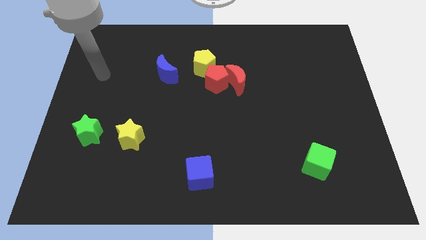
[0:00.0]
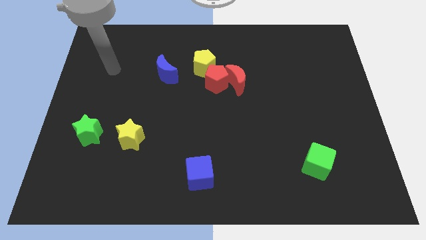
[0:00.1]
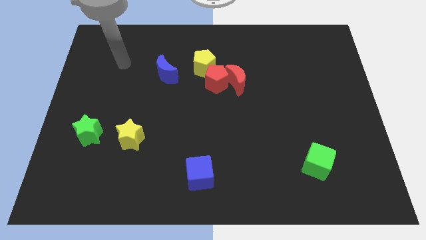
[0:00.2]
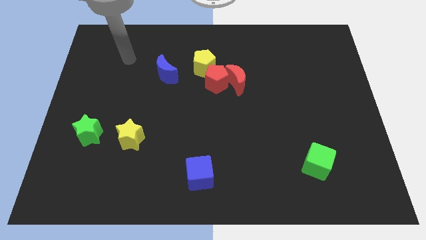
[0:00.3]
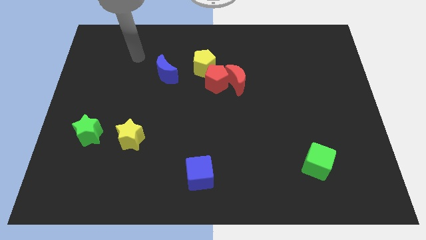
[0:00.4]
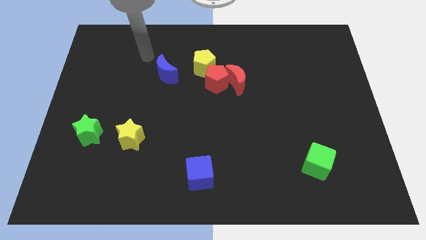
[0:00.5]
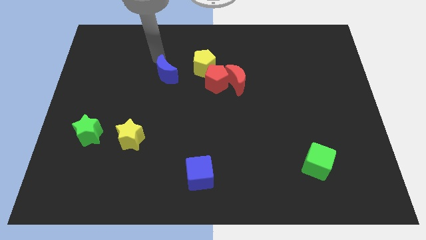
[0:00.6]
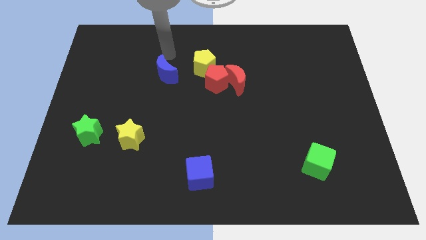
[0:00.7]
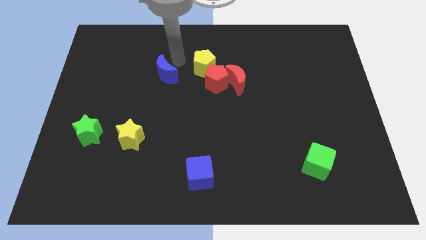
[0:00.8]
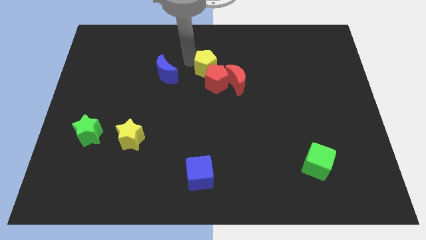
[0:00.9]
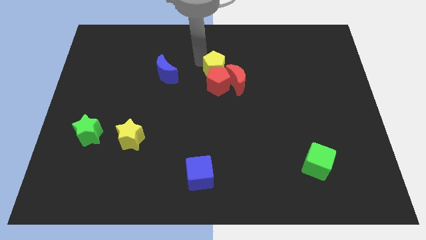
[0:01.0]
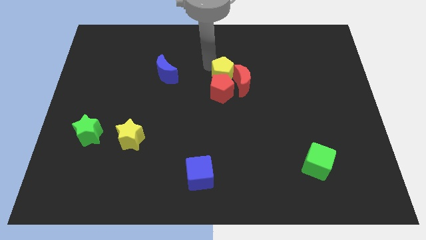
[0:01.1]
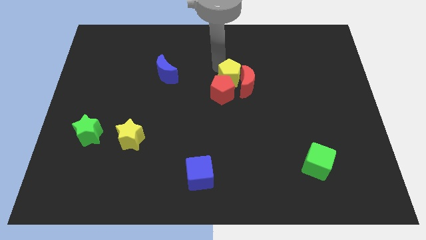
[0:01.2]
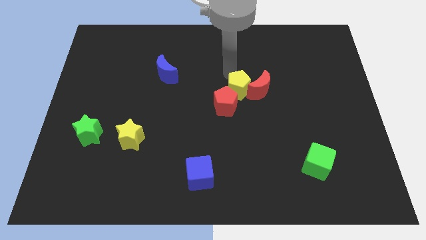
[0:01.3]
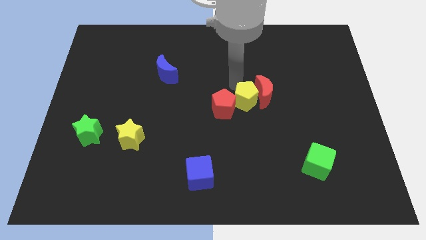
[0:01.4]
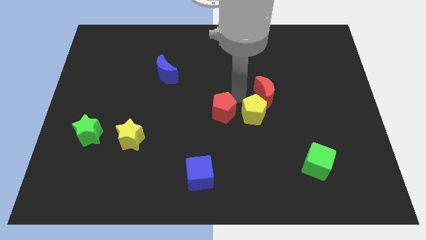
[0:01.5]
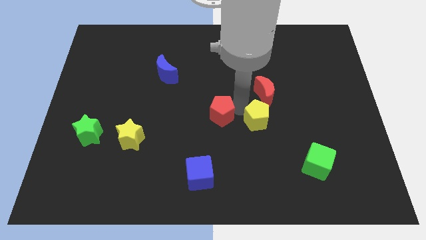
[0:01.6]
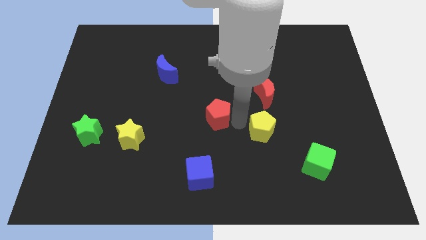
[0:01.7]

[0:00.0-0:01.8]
move the red pentagon away from the red moon and yellow pentagon

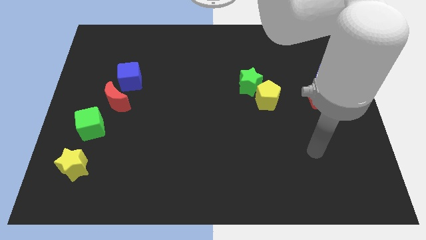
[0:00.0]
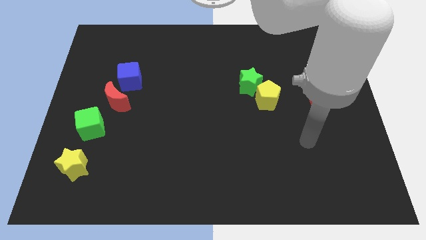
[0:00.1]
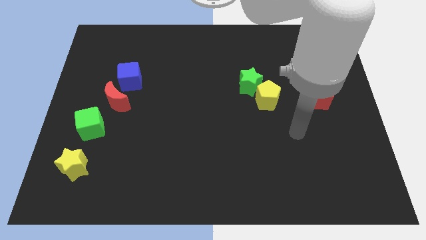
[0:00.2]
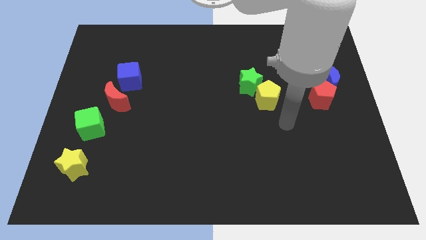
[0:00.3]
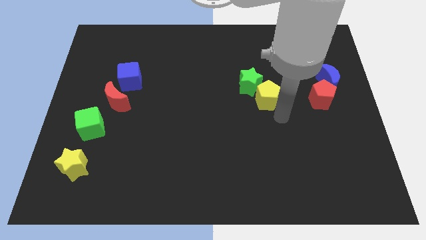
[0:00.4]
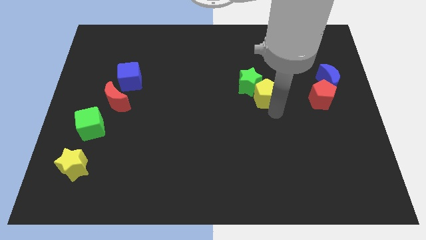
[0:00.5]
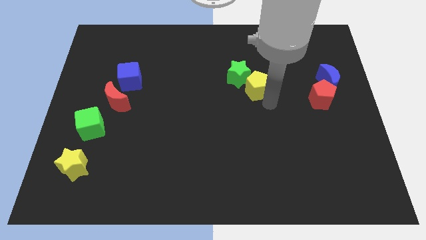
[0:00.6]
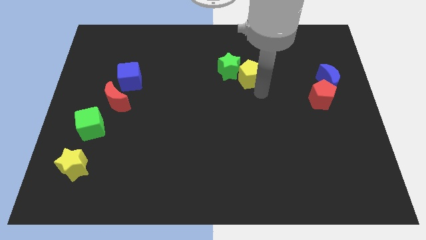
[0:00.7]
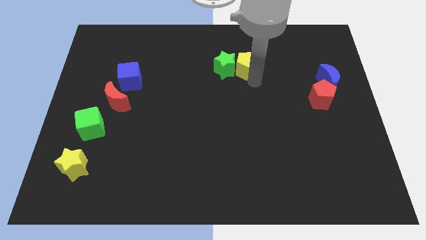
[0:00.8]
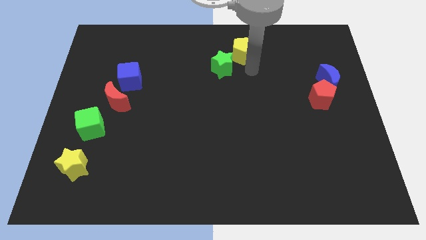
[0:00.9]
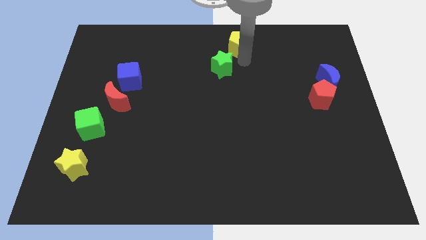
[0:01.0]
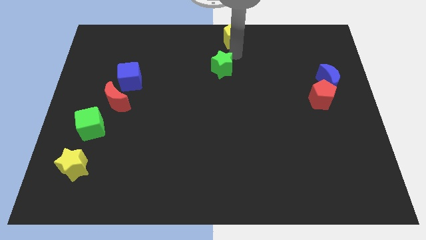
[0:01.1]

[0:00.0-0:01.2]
move the green star away from the yellow pentagon

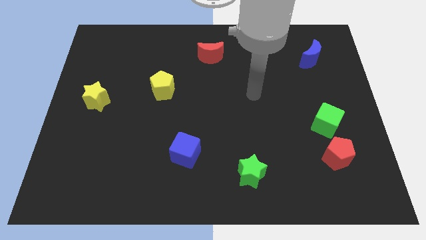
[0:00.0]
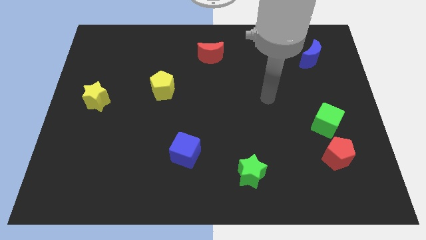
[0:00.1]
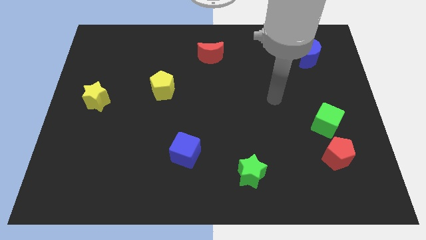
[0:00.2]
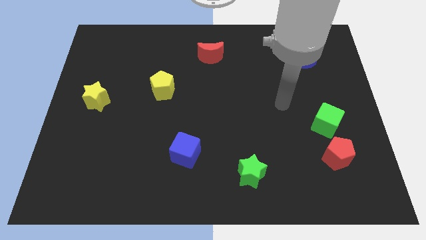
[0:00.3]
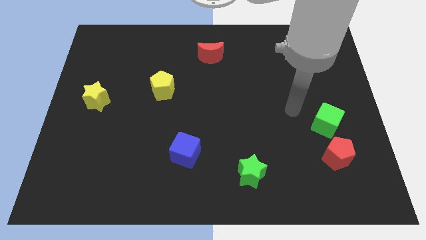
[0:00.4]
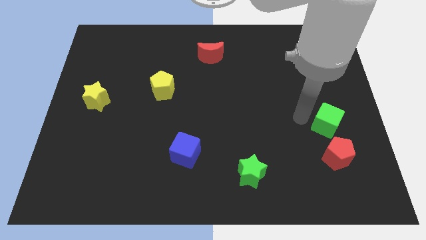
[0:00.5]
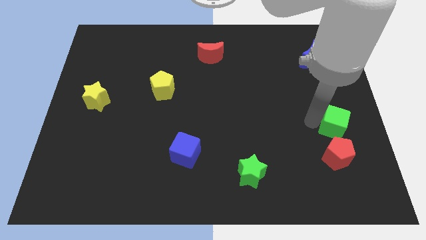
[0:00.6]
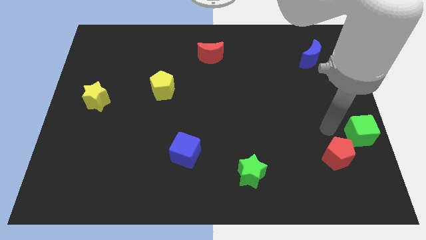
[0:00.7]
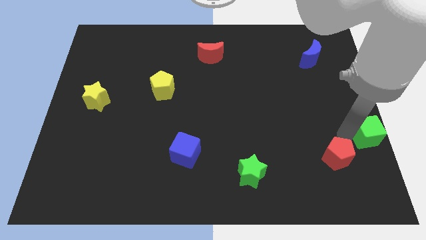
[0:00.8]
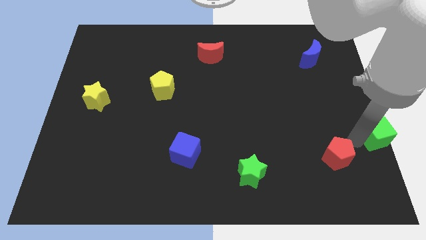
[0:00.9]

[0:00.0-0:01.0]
separate the red pentagon from the green cube

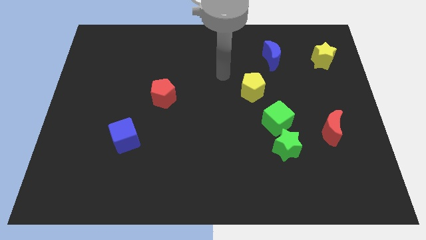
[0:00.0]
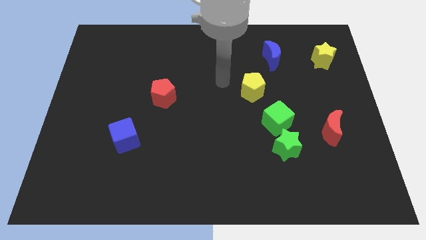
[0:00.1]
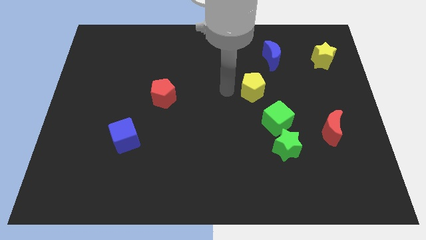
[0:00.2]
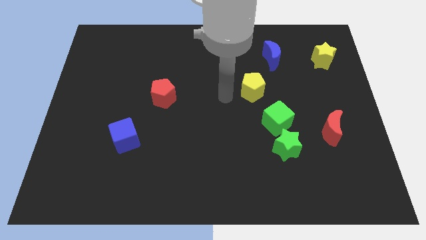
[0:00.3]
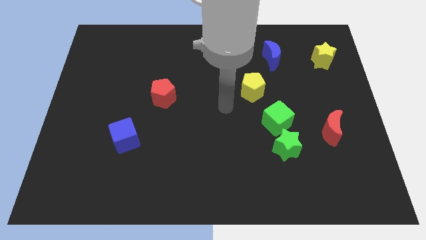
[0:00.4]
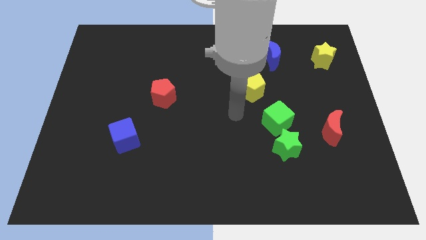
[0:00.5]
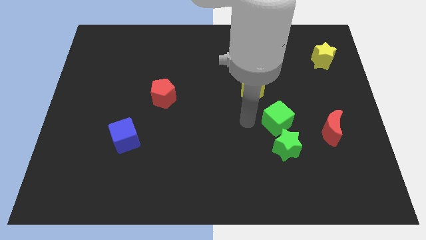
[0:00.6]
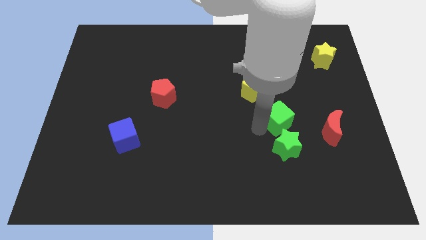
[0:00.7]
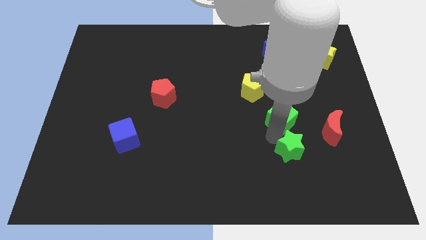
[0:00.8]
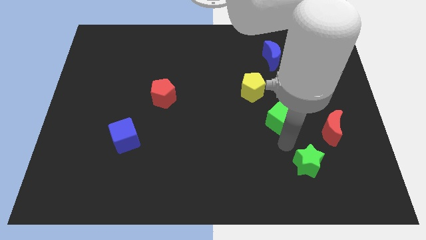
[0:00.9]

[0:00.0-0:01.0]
move the green cube away from the green star

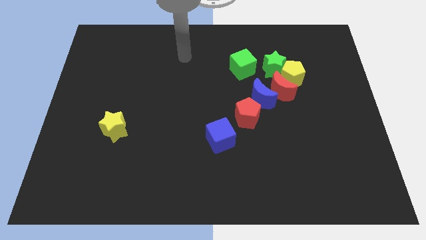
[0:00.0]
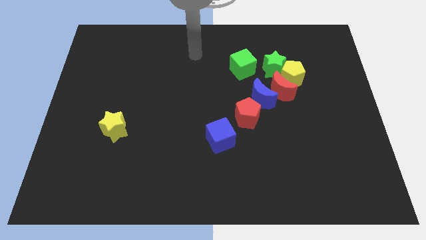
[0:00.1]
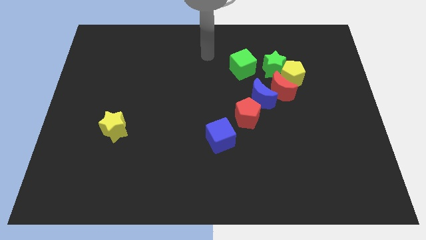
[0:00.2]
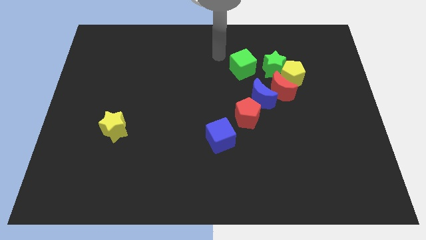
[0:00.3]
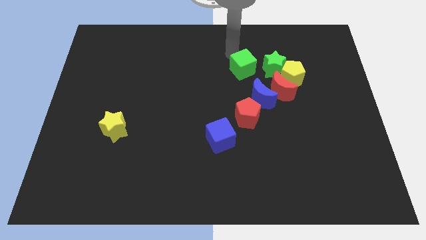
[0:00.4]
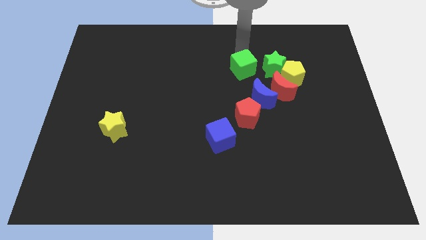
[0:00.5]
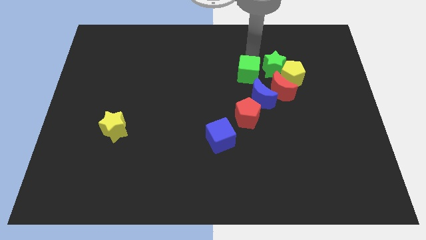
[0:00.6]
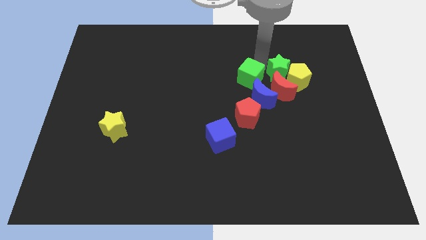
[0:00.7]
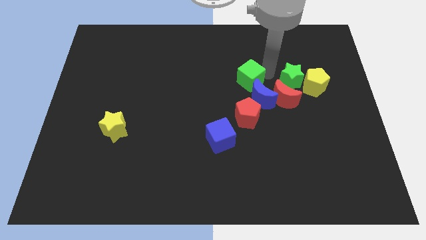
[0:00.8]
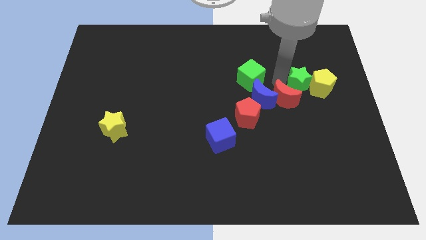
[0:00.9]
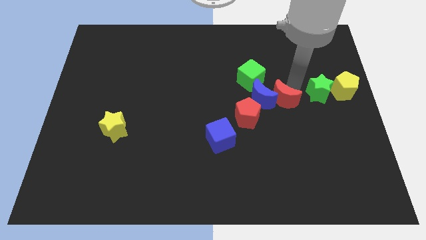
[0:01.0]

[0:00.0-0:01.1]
pull the yellow pentagon apart from the green star and red moon

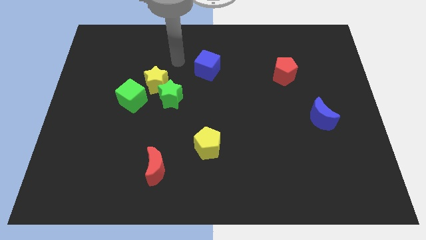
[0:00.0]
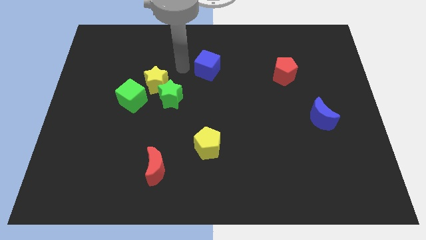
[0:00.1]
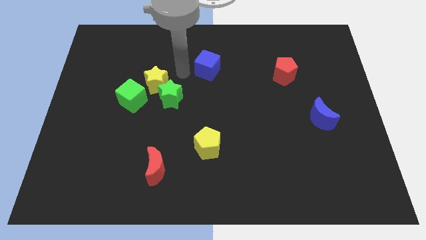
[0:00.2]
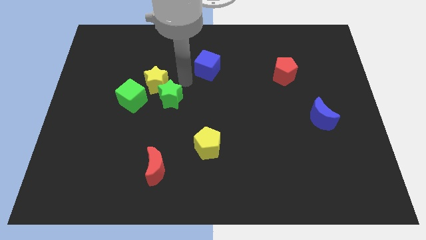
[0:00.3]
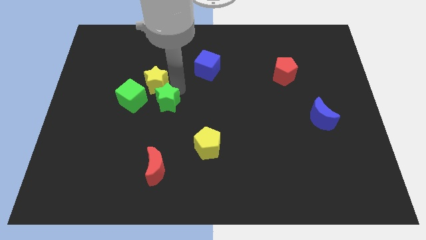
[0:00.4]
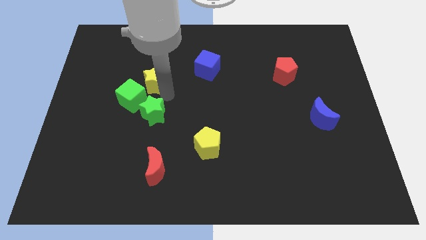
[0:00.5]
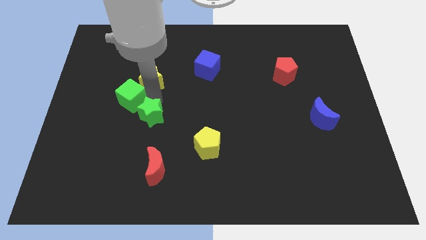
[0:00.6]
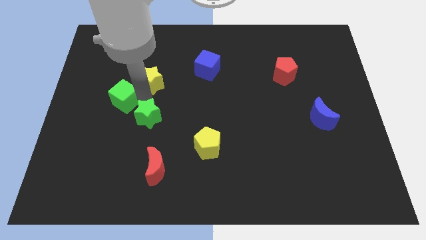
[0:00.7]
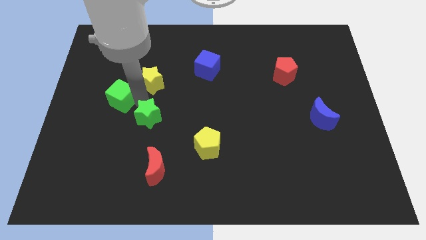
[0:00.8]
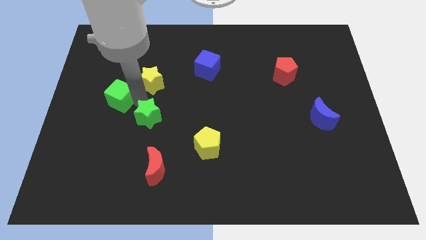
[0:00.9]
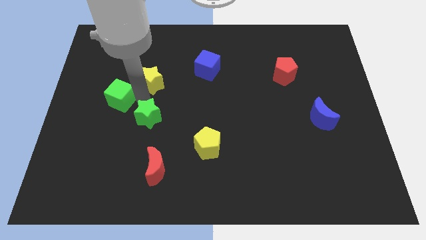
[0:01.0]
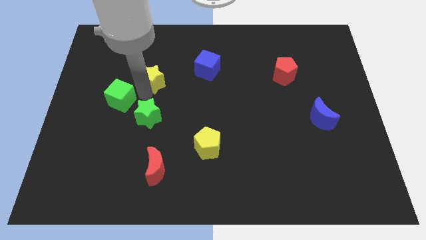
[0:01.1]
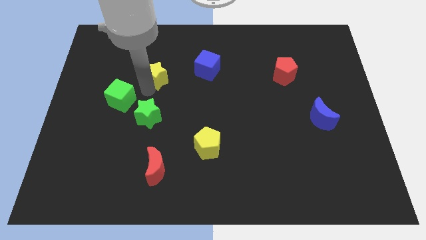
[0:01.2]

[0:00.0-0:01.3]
move the yellow star away from the green star and green cube

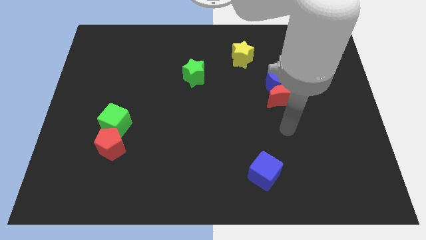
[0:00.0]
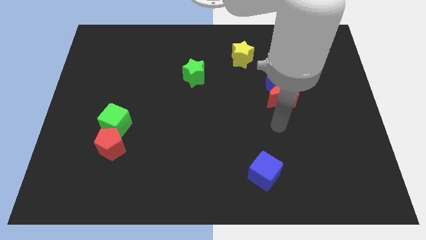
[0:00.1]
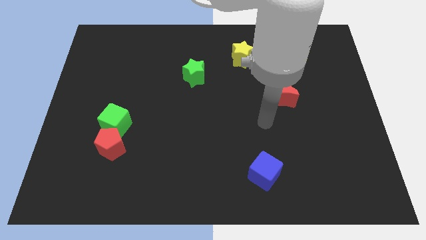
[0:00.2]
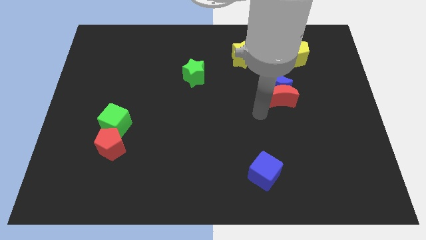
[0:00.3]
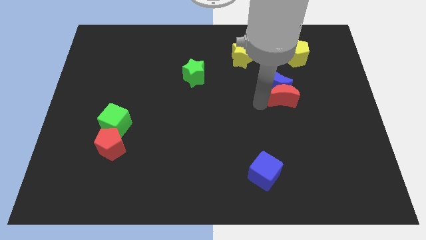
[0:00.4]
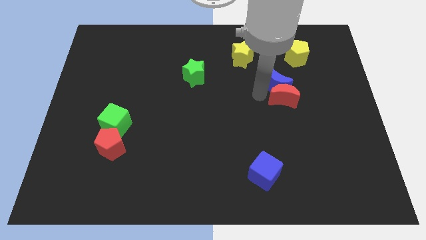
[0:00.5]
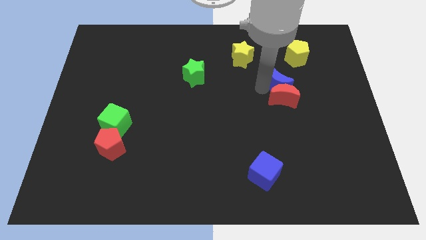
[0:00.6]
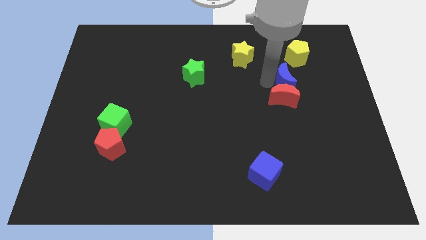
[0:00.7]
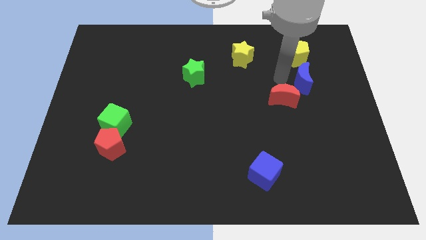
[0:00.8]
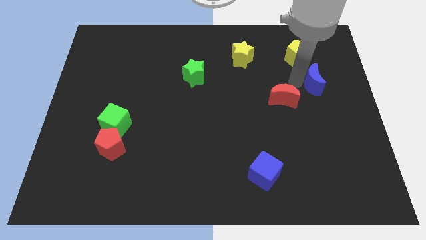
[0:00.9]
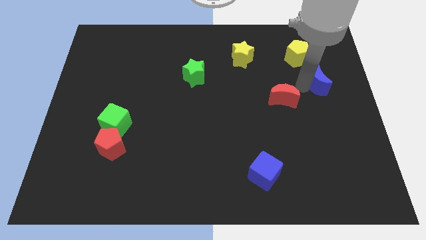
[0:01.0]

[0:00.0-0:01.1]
pull the red moon apart from the blue moon

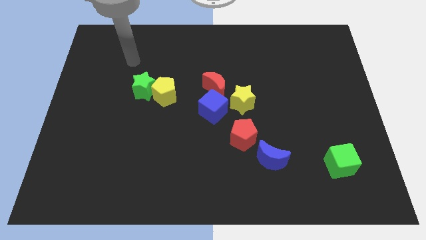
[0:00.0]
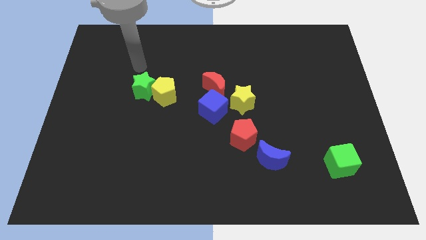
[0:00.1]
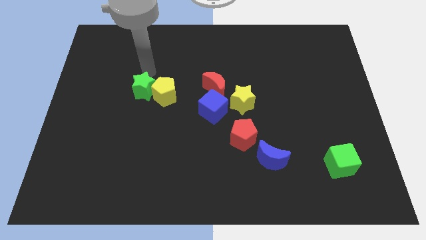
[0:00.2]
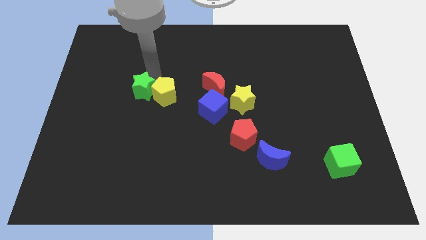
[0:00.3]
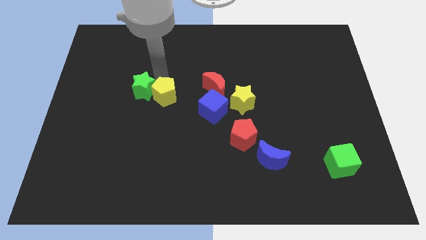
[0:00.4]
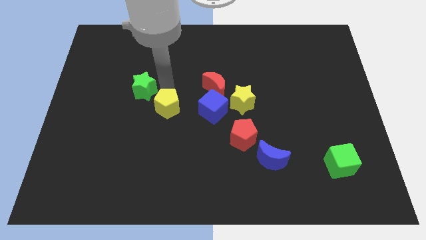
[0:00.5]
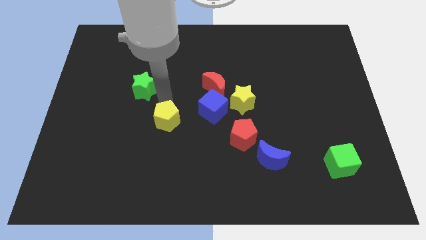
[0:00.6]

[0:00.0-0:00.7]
separate the green star from the yellow pentagon

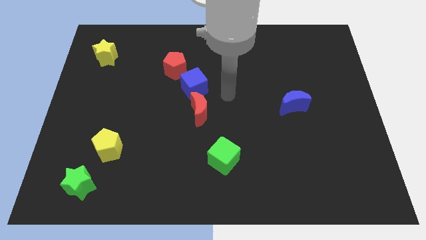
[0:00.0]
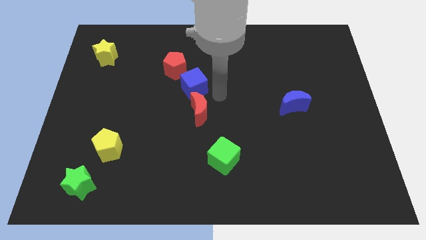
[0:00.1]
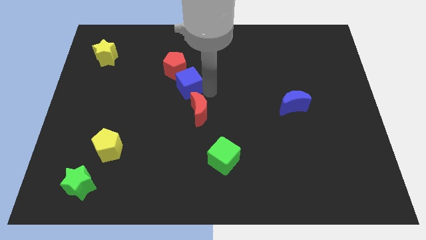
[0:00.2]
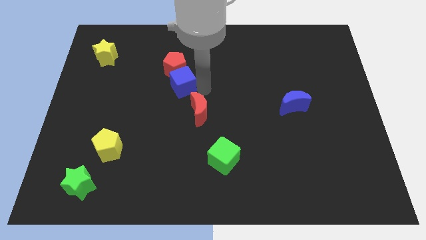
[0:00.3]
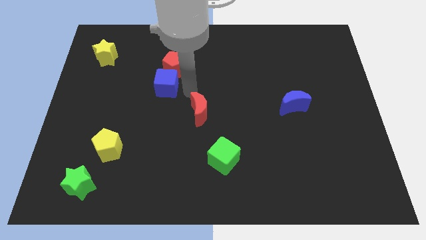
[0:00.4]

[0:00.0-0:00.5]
separate the red moon from the blue cube
